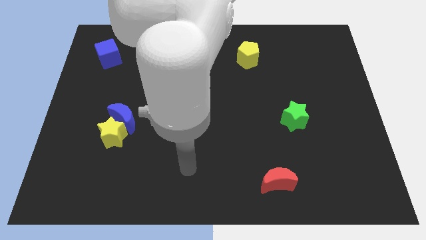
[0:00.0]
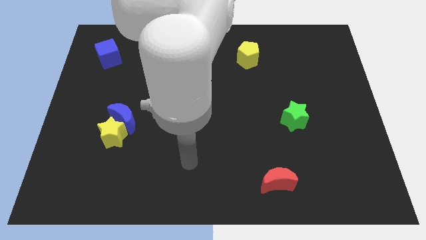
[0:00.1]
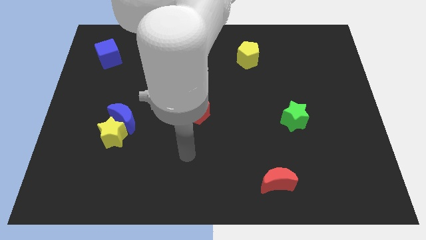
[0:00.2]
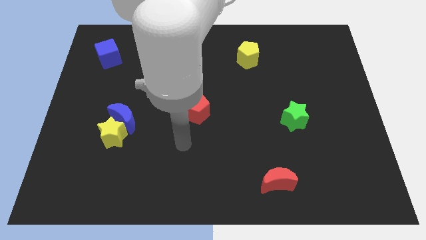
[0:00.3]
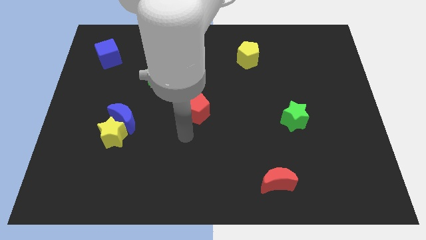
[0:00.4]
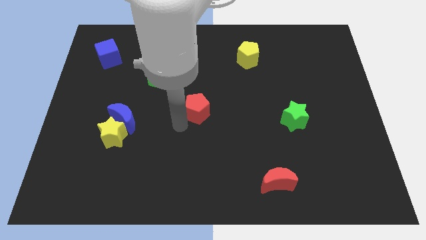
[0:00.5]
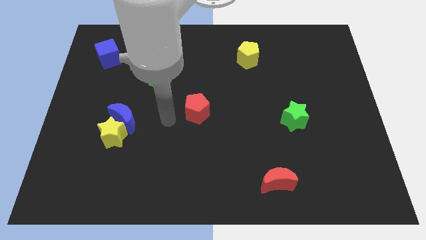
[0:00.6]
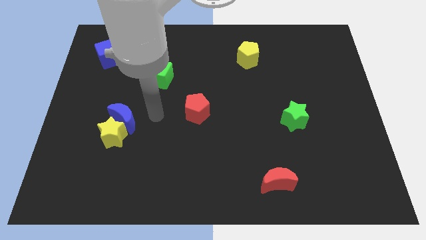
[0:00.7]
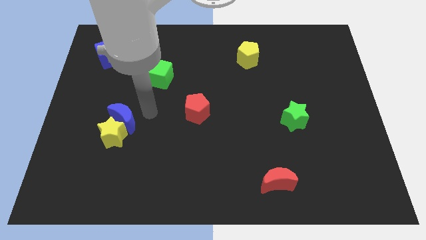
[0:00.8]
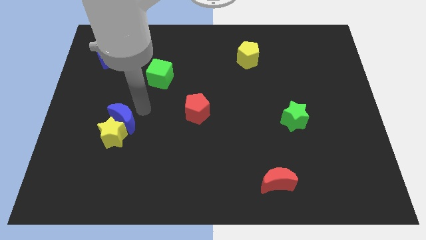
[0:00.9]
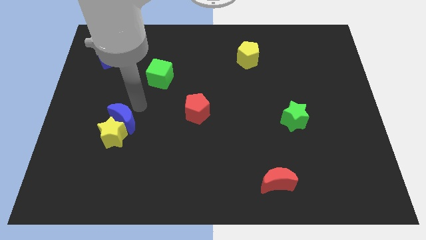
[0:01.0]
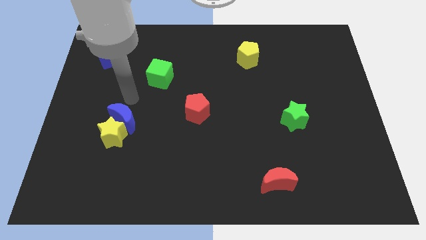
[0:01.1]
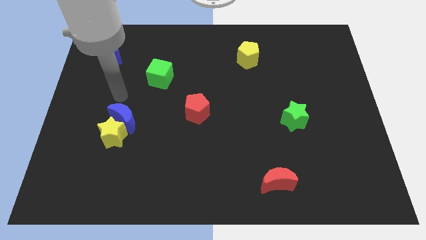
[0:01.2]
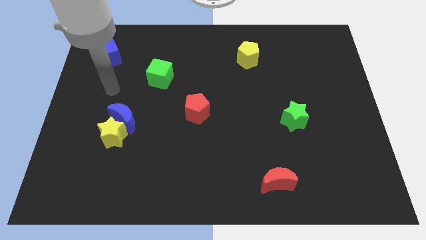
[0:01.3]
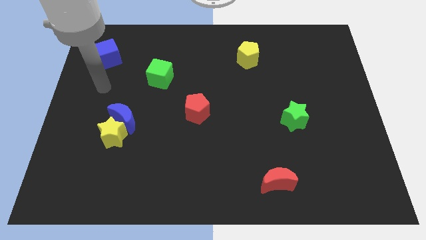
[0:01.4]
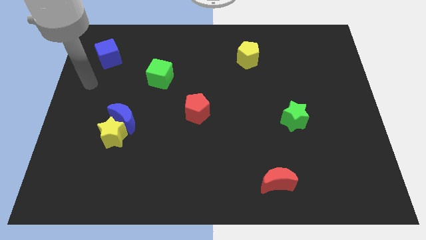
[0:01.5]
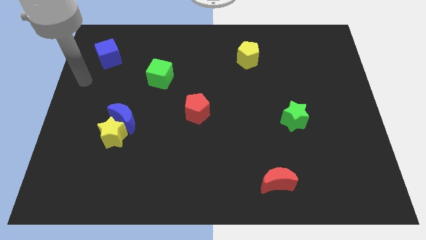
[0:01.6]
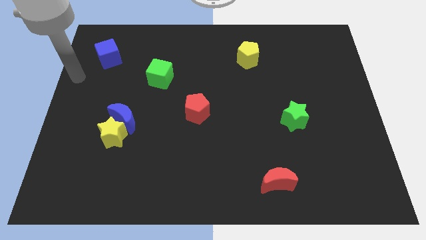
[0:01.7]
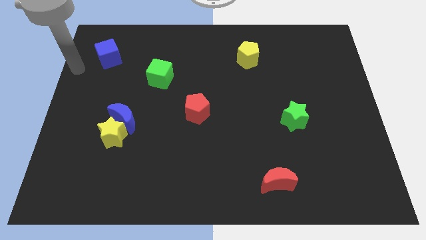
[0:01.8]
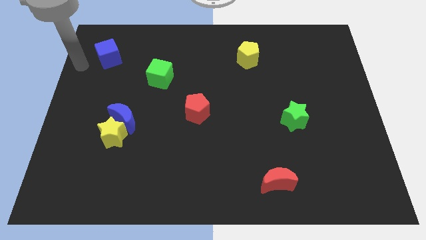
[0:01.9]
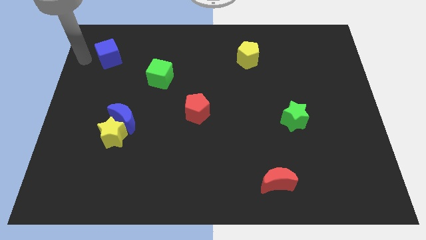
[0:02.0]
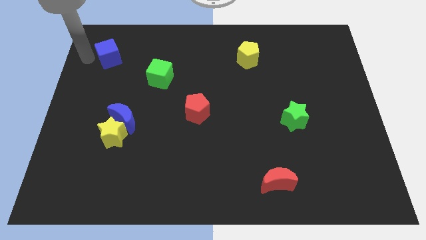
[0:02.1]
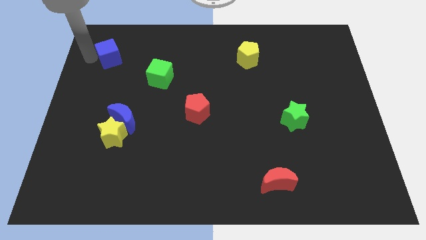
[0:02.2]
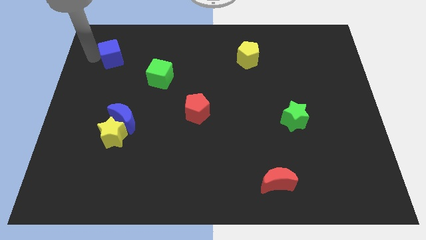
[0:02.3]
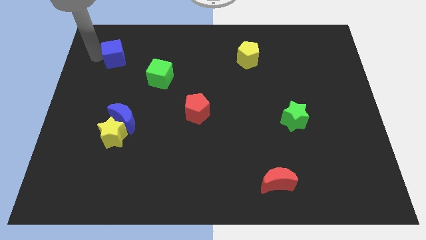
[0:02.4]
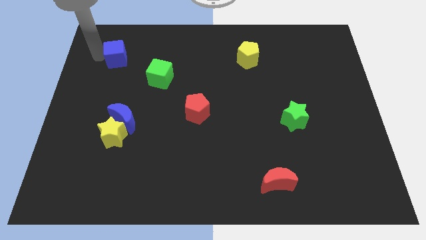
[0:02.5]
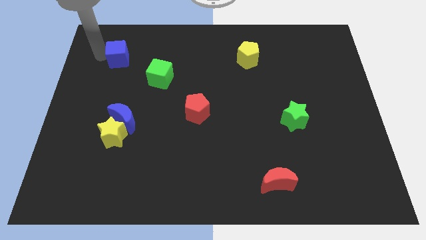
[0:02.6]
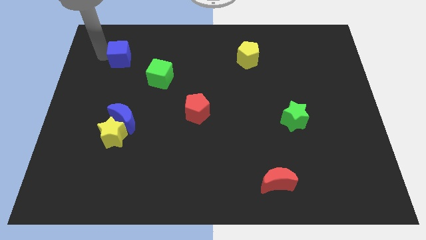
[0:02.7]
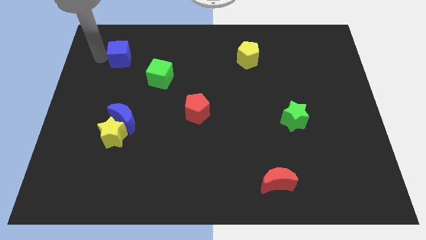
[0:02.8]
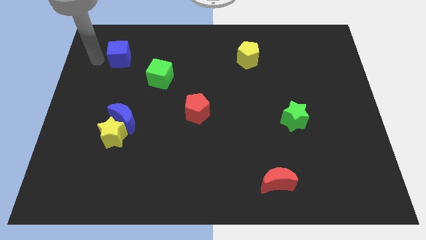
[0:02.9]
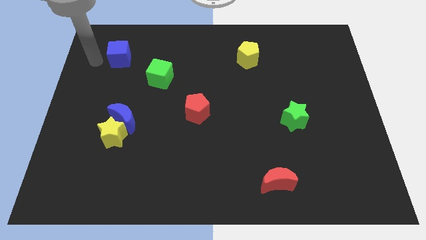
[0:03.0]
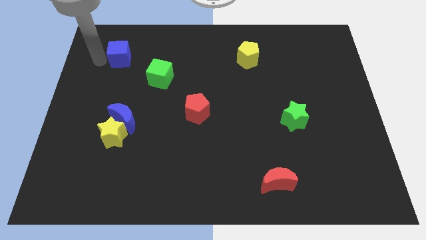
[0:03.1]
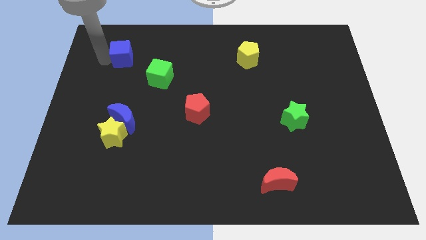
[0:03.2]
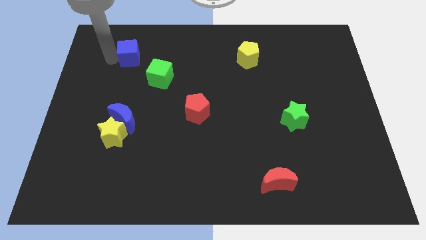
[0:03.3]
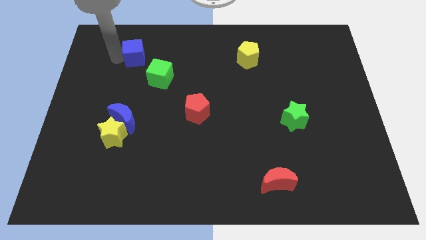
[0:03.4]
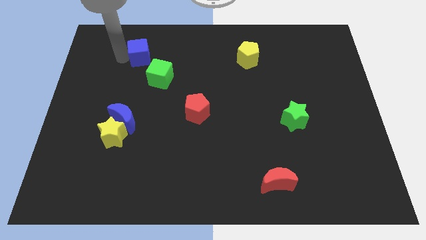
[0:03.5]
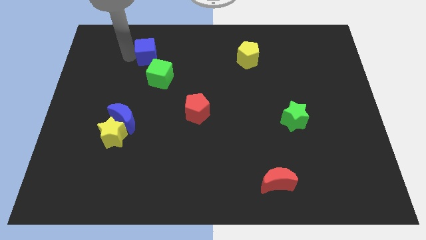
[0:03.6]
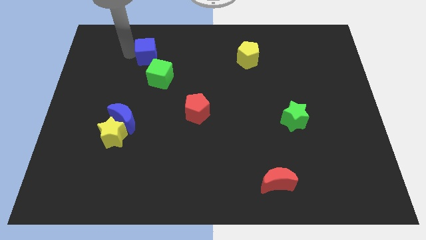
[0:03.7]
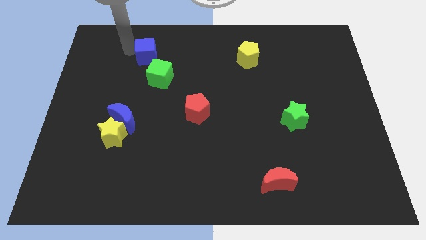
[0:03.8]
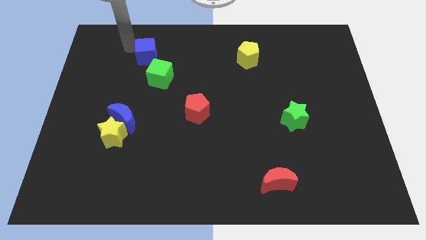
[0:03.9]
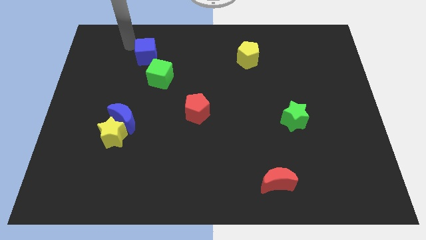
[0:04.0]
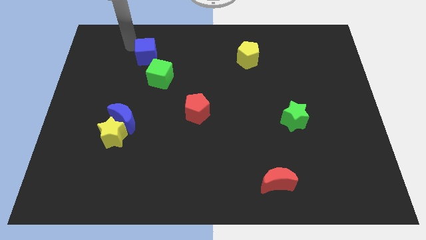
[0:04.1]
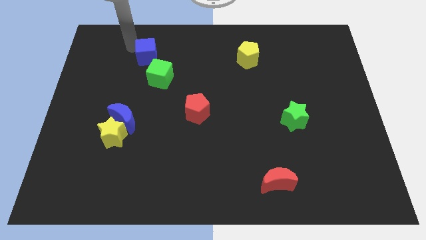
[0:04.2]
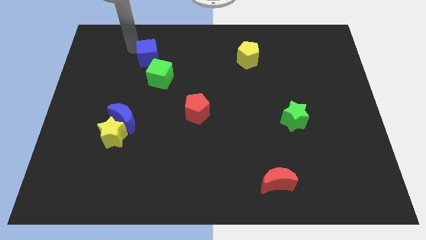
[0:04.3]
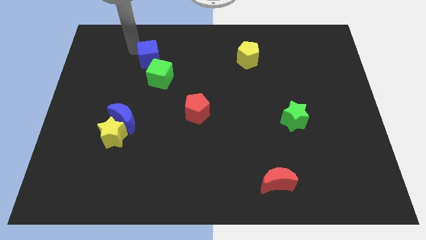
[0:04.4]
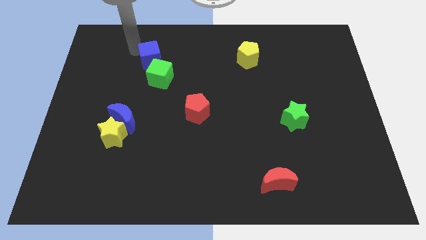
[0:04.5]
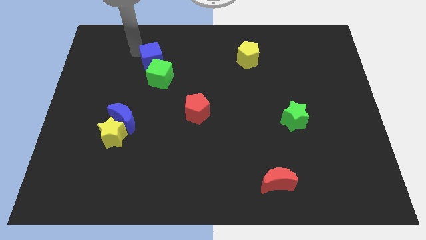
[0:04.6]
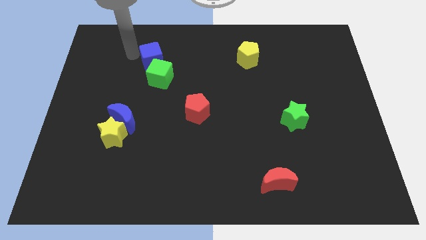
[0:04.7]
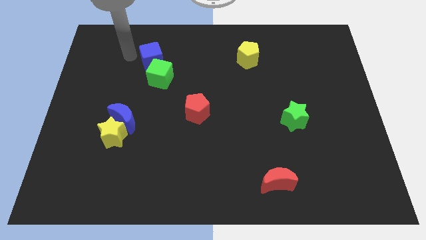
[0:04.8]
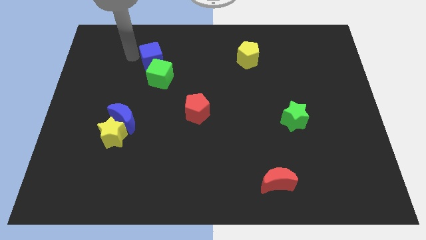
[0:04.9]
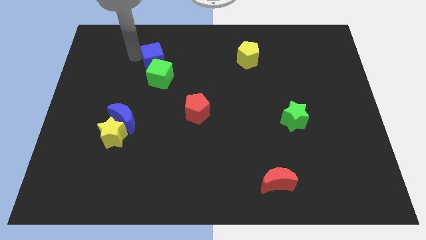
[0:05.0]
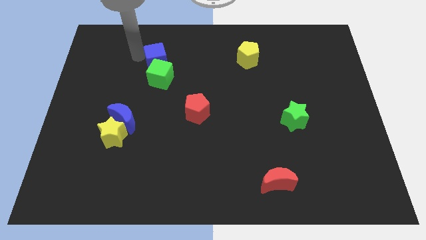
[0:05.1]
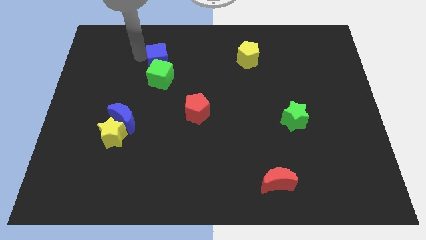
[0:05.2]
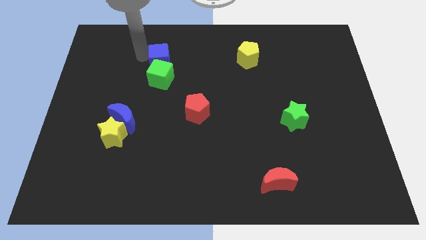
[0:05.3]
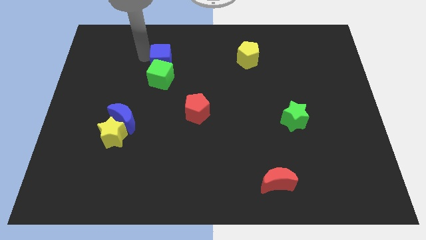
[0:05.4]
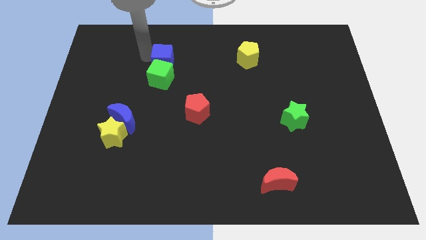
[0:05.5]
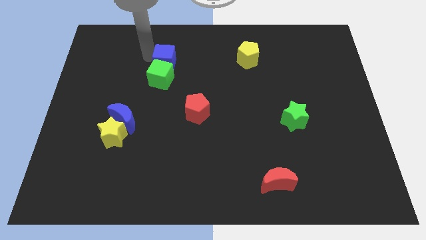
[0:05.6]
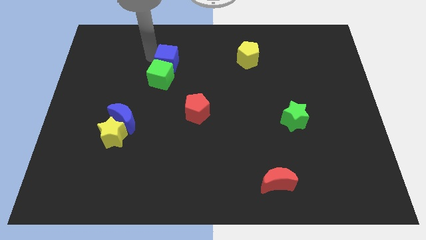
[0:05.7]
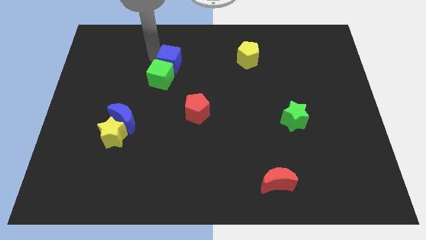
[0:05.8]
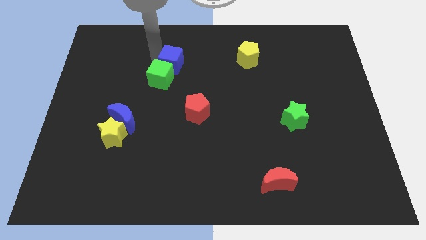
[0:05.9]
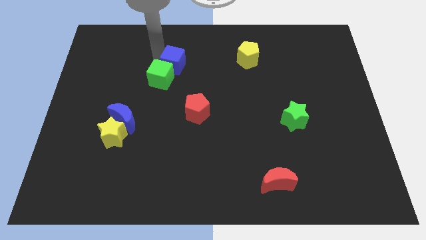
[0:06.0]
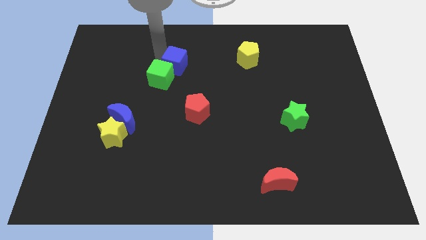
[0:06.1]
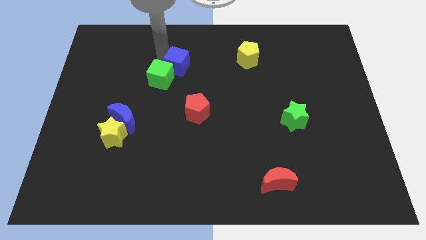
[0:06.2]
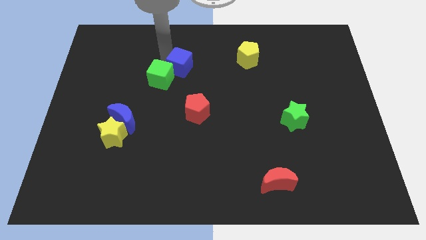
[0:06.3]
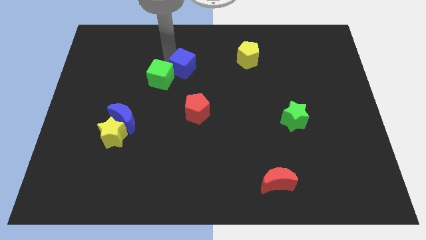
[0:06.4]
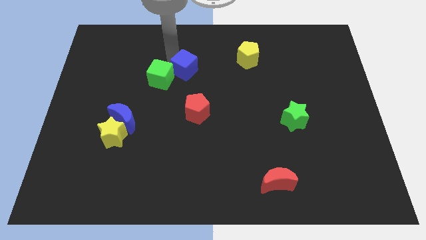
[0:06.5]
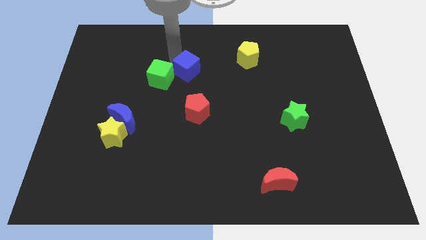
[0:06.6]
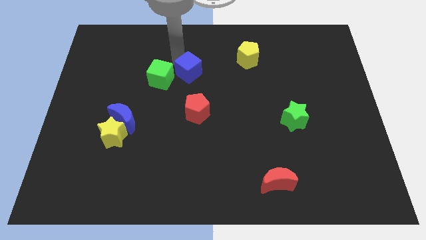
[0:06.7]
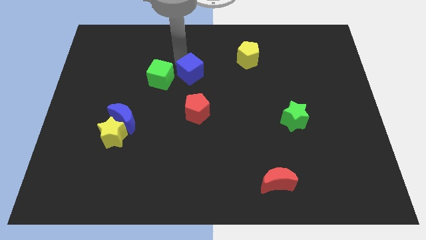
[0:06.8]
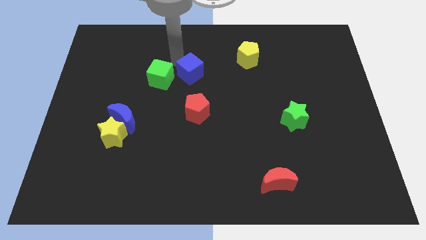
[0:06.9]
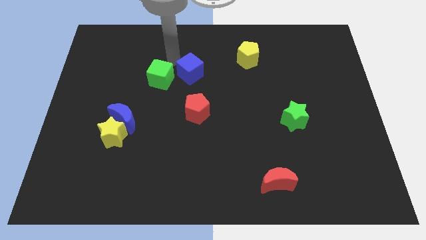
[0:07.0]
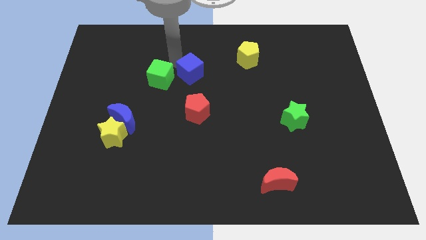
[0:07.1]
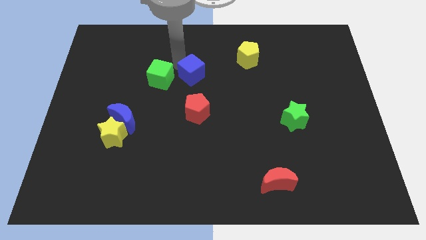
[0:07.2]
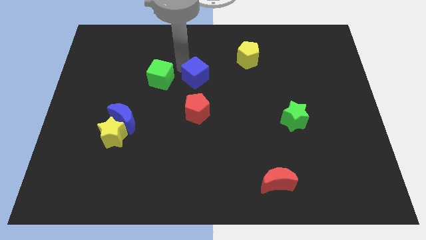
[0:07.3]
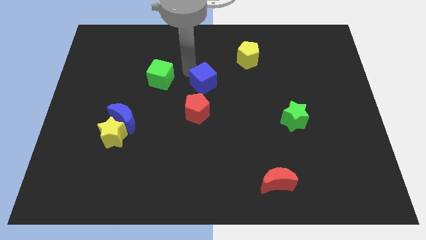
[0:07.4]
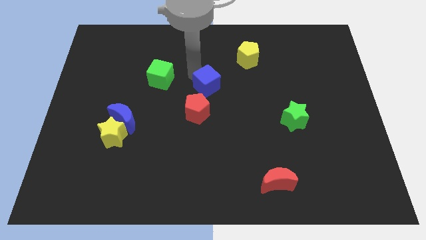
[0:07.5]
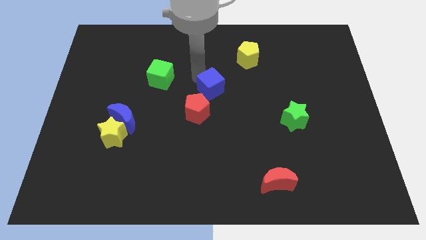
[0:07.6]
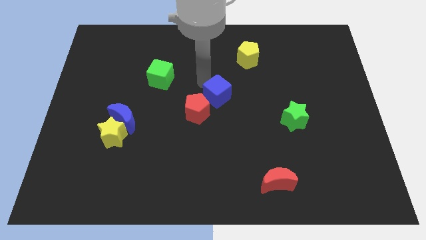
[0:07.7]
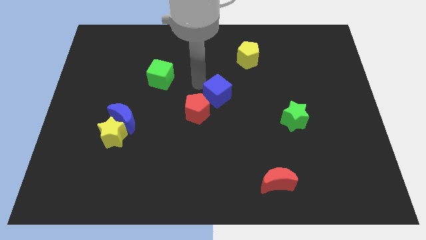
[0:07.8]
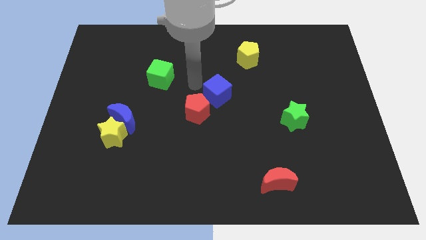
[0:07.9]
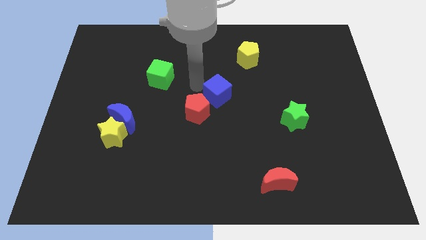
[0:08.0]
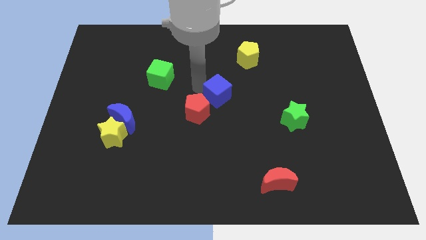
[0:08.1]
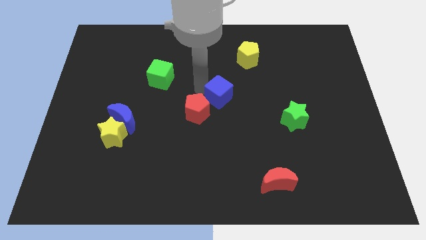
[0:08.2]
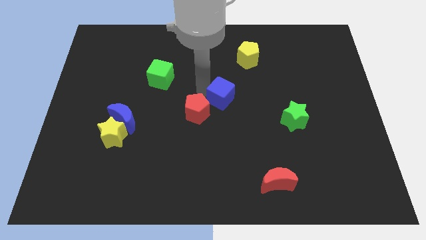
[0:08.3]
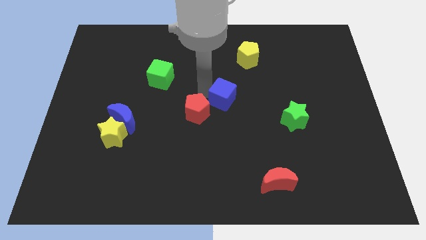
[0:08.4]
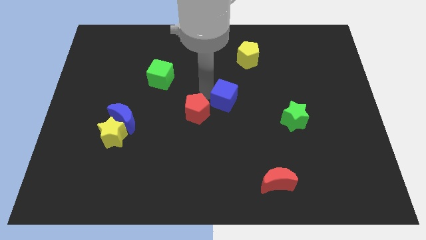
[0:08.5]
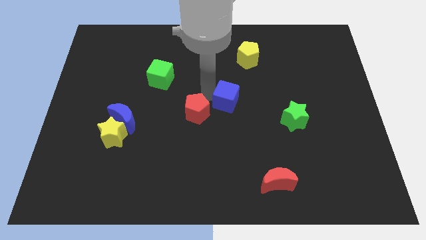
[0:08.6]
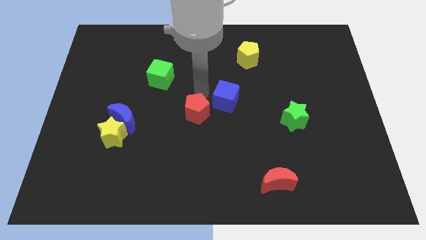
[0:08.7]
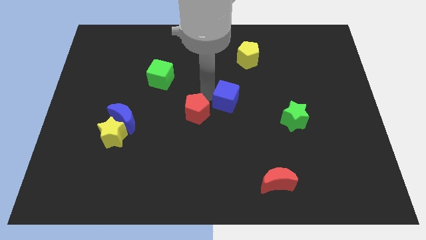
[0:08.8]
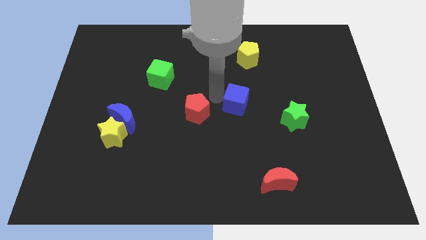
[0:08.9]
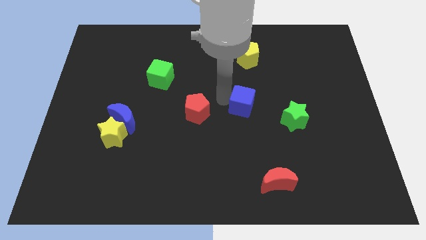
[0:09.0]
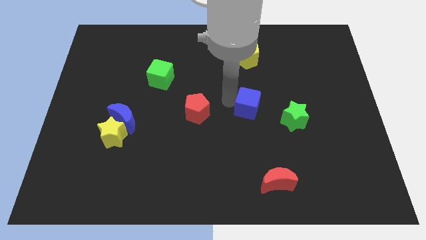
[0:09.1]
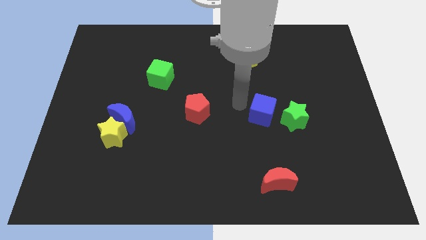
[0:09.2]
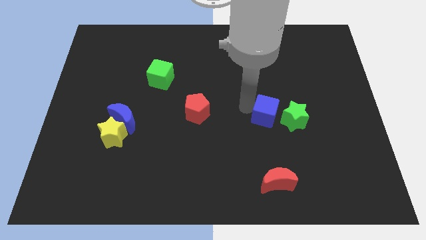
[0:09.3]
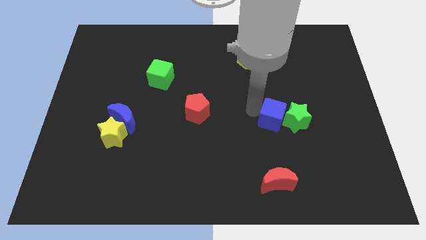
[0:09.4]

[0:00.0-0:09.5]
push the blue cube towards the green star
